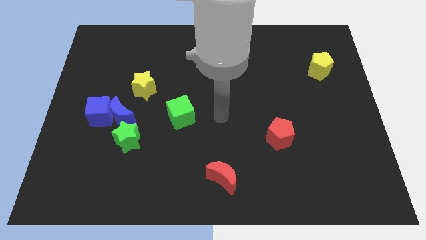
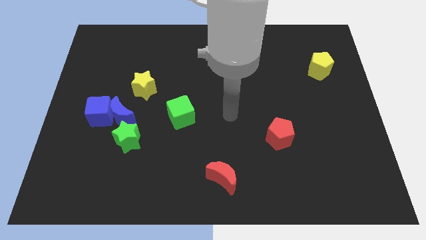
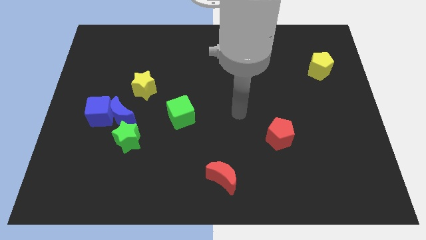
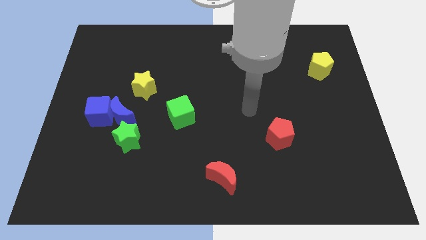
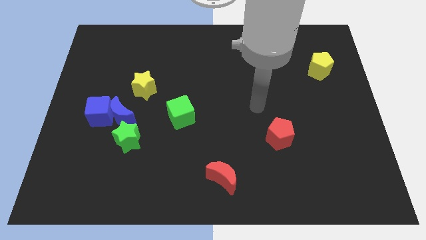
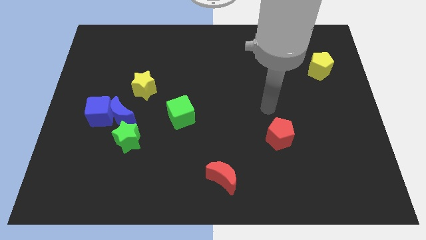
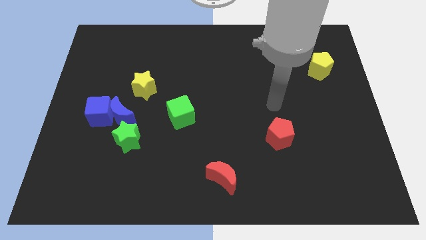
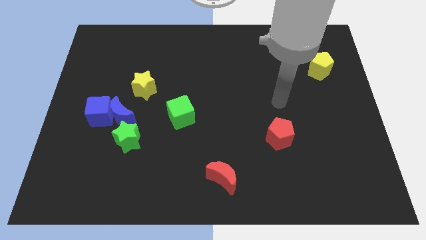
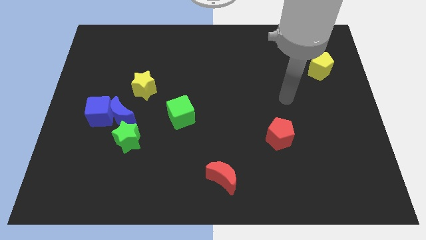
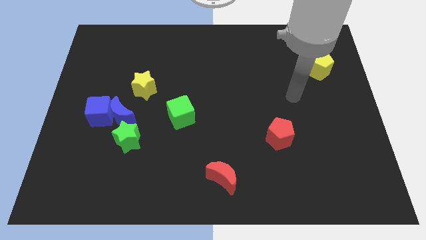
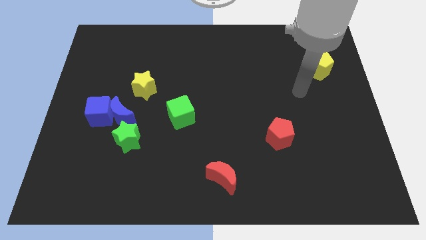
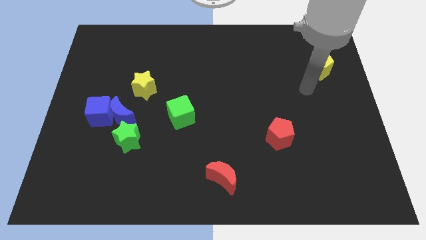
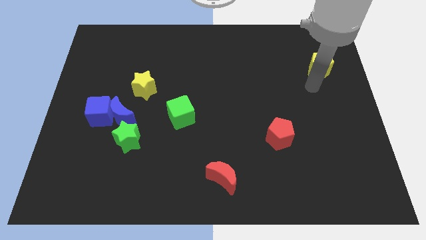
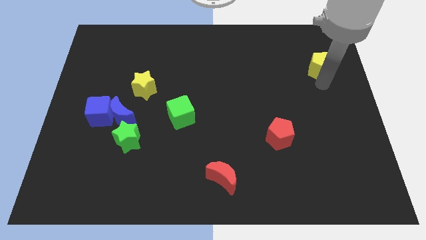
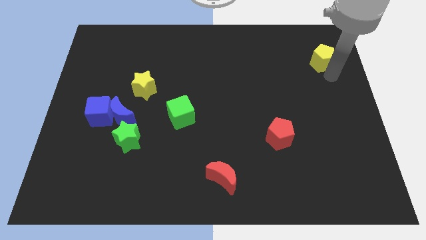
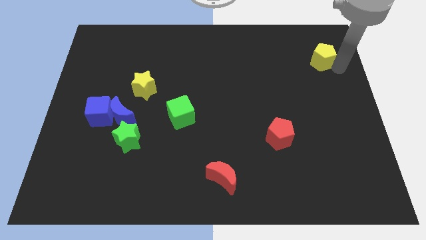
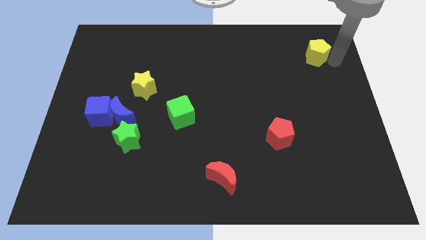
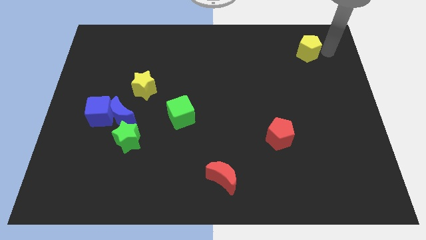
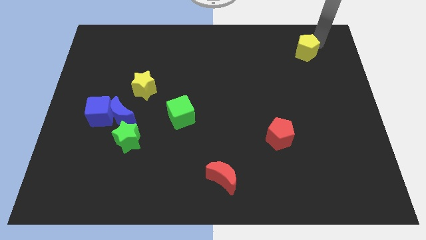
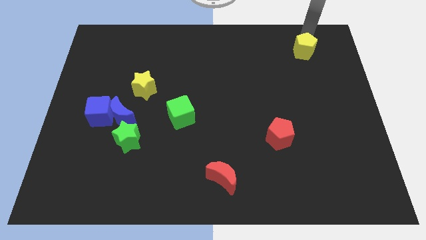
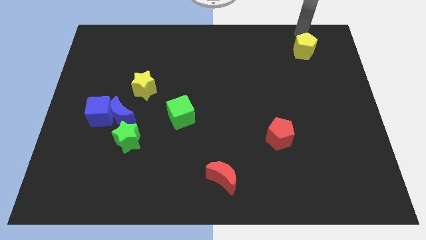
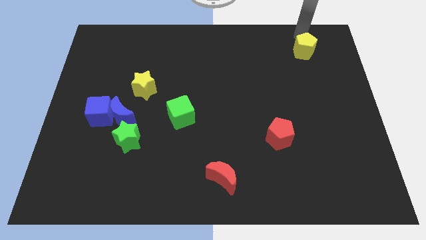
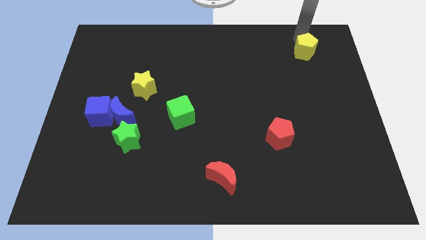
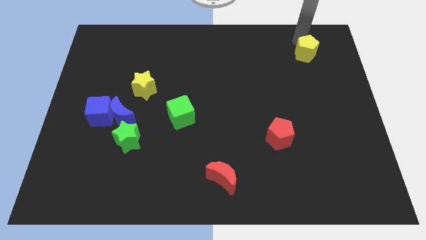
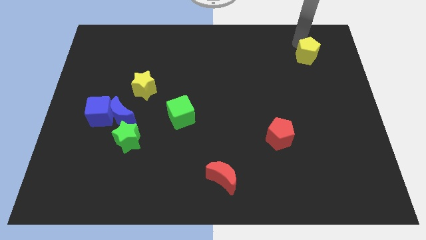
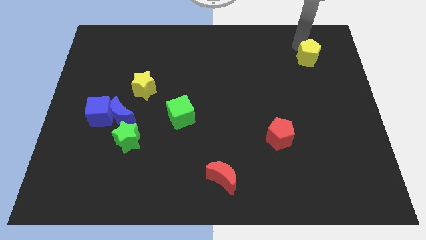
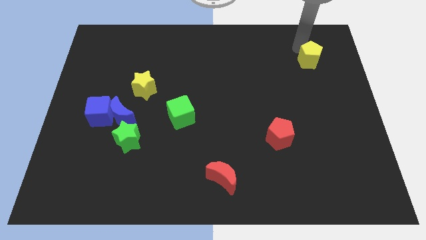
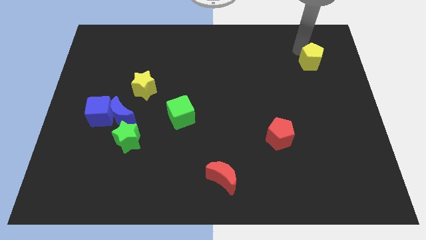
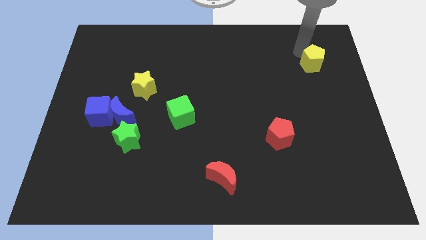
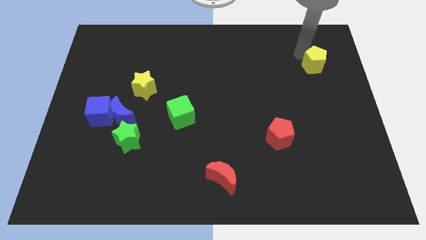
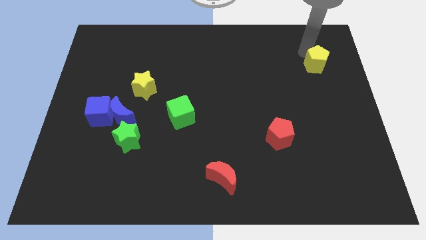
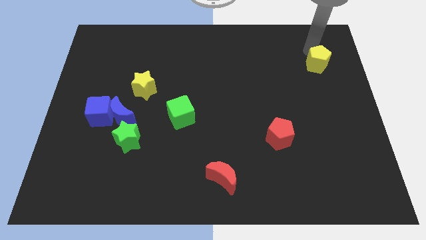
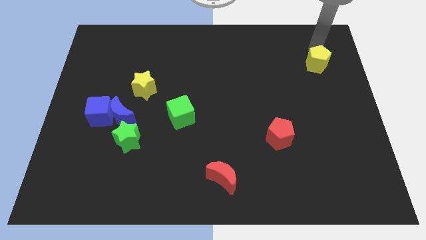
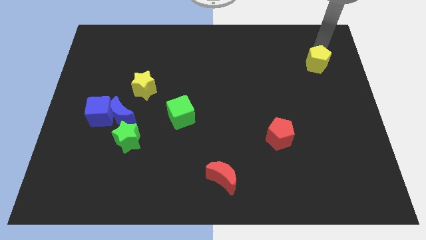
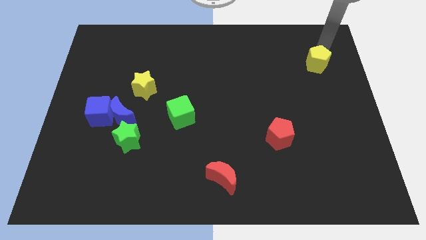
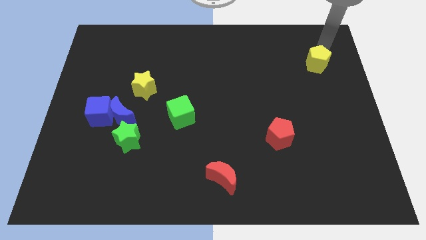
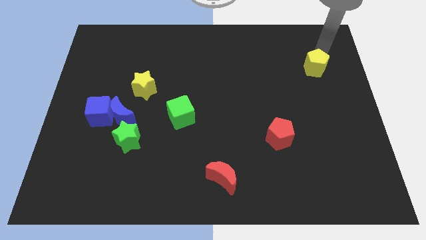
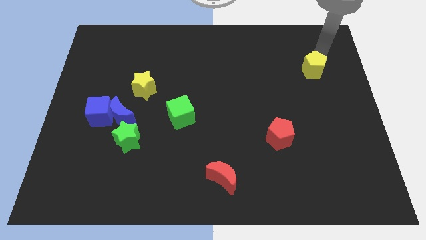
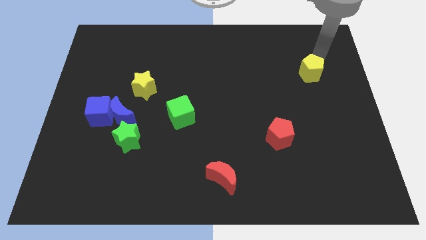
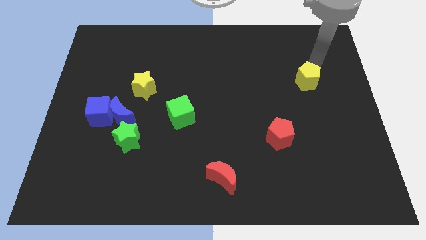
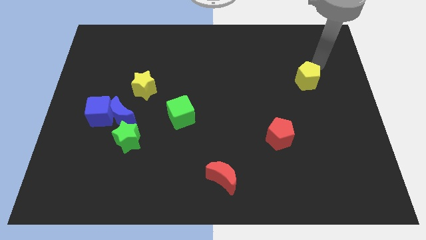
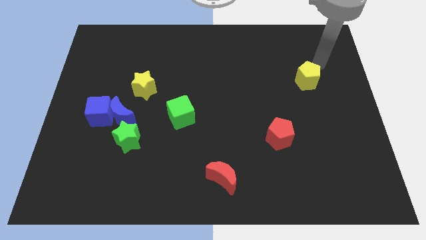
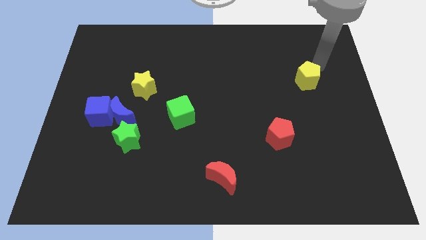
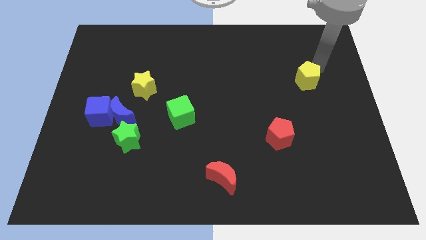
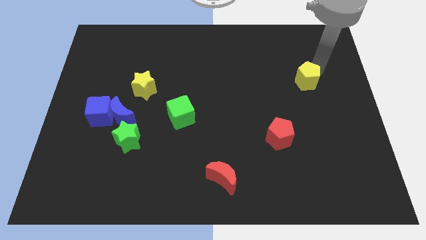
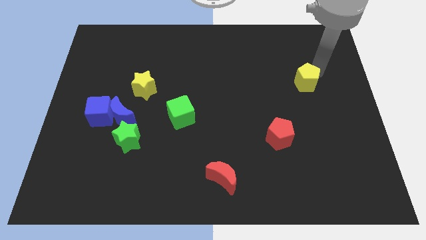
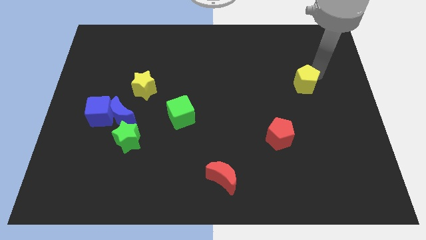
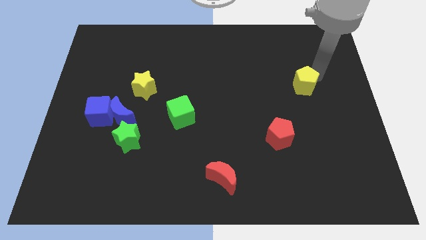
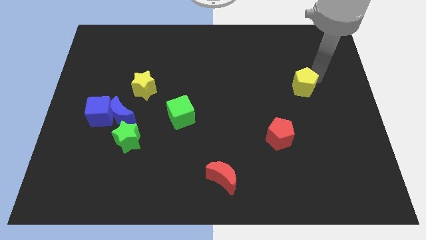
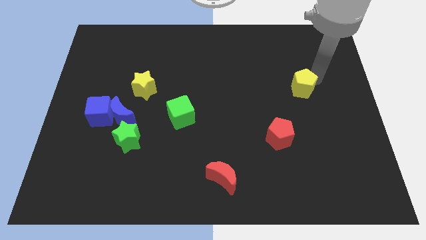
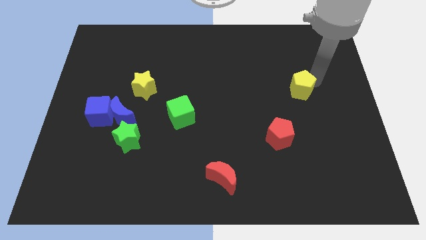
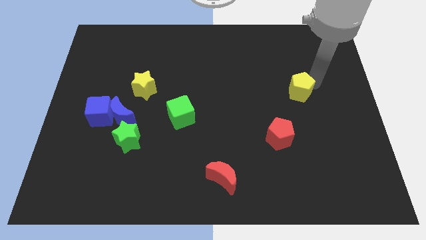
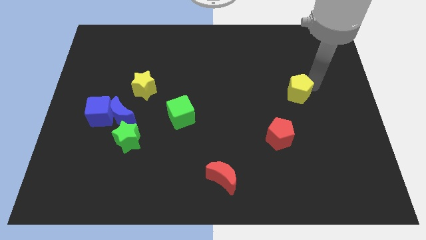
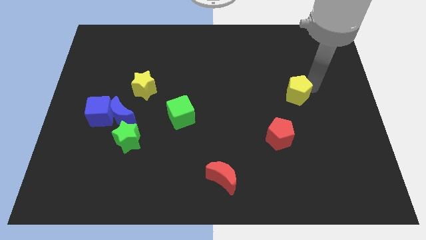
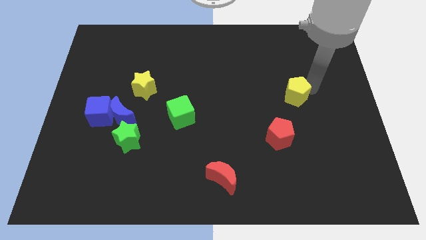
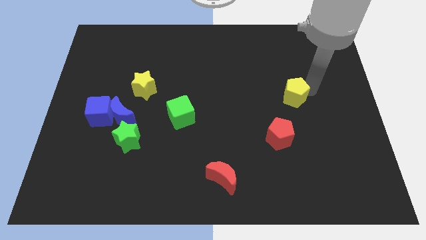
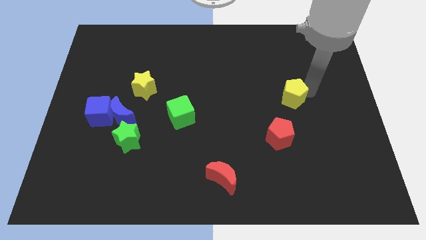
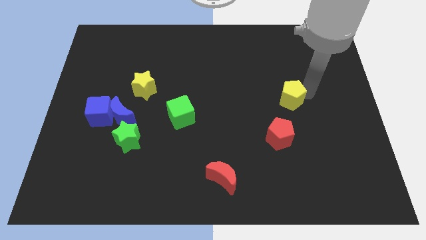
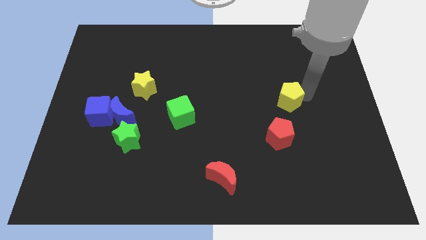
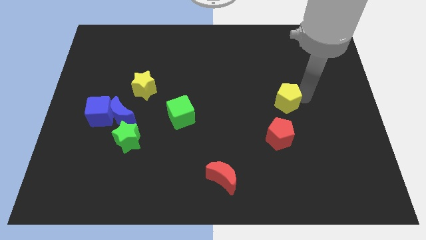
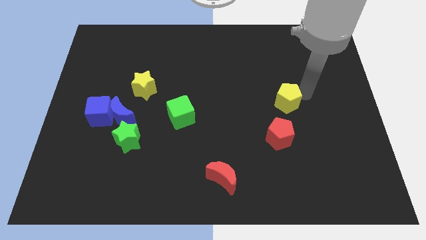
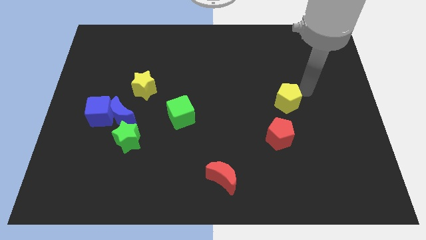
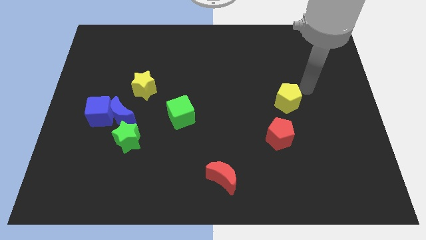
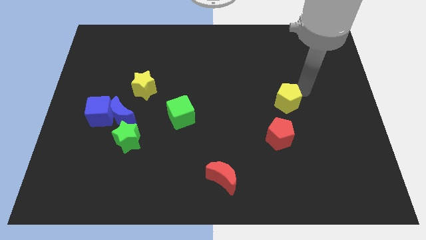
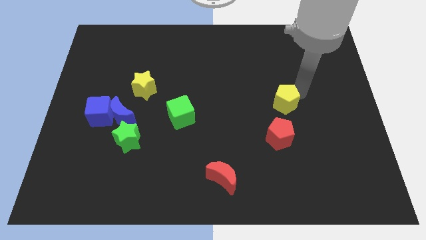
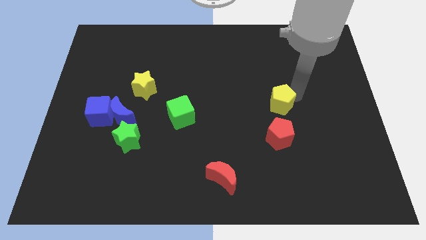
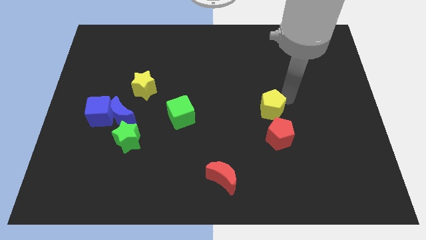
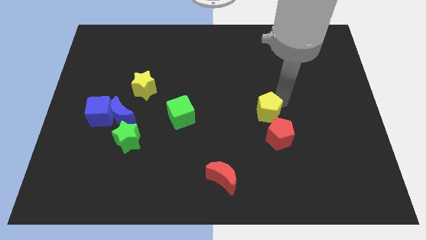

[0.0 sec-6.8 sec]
slide the yellow pentagon diagonally down and left

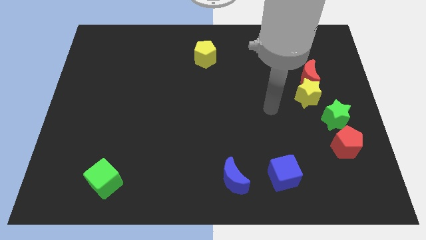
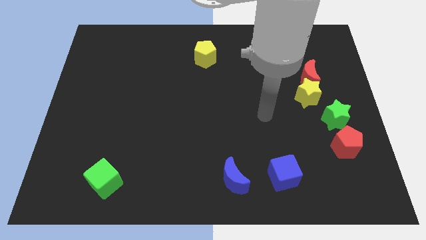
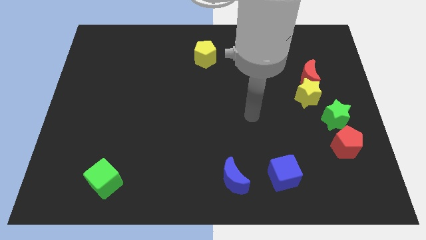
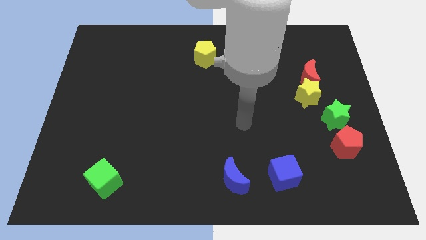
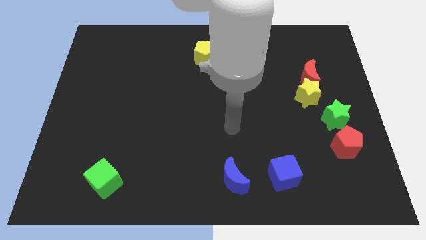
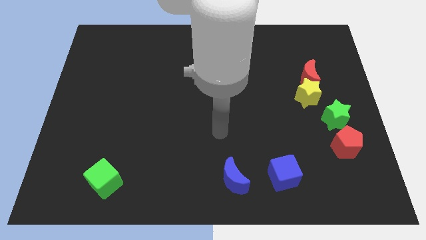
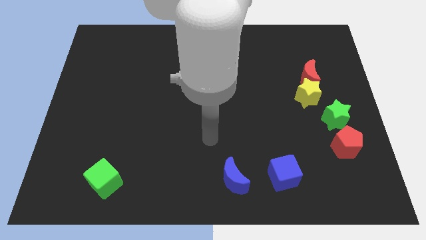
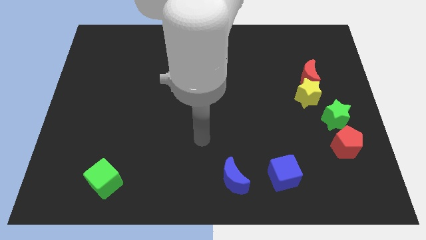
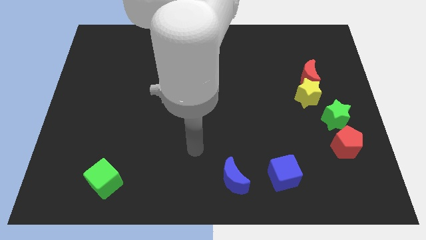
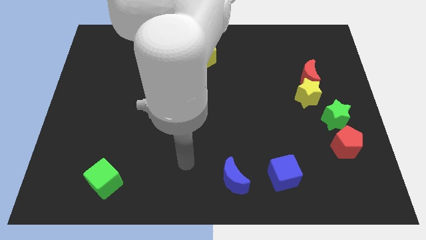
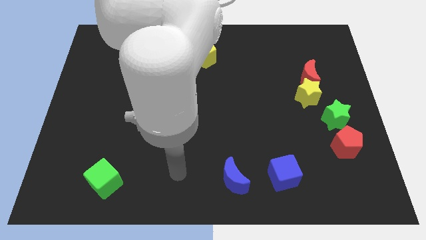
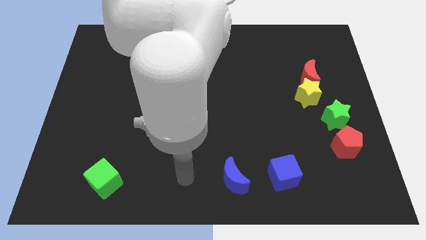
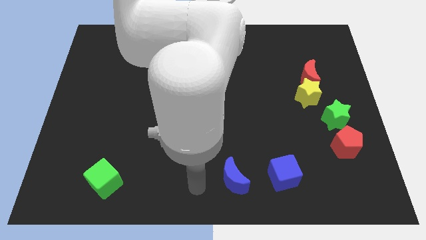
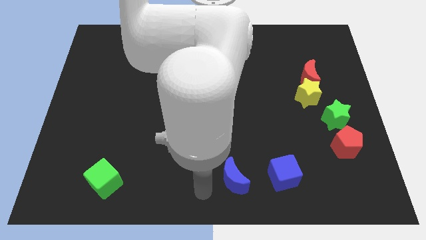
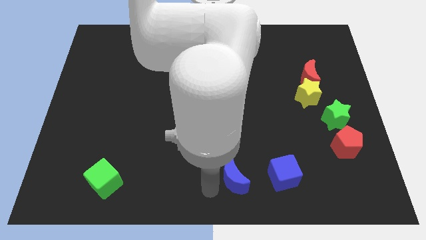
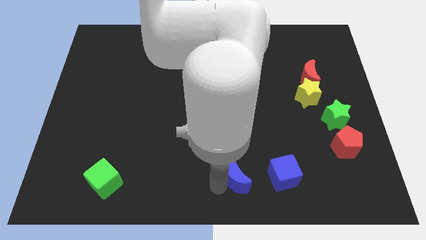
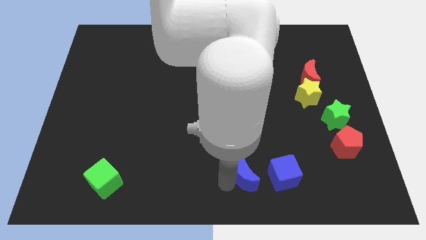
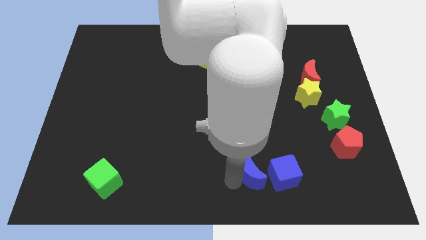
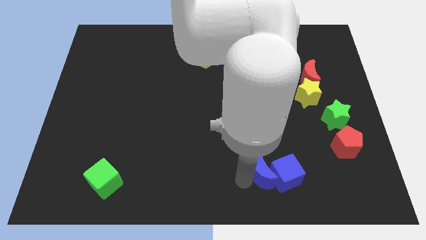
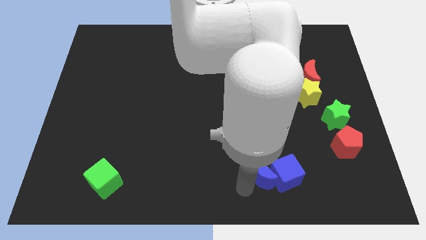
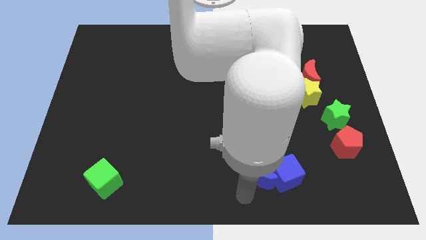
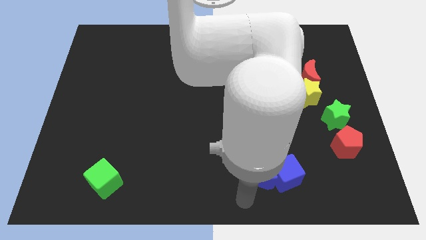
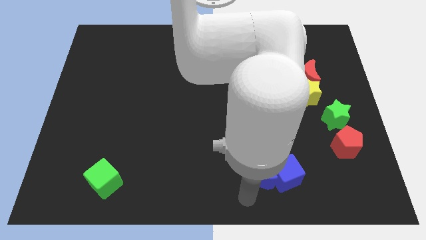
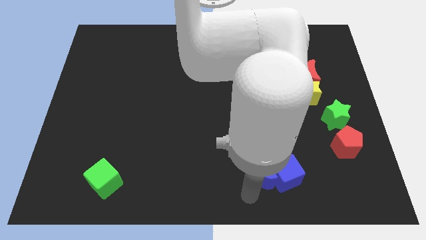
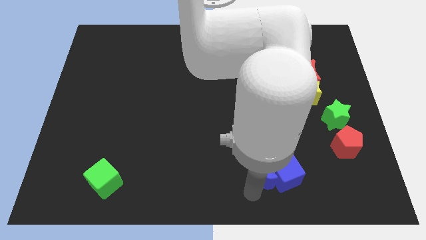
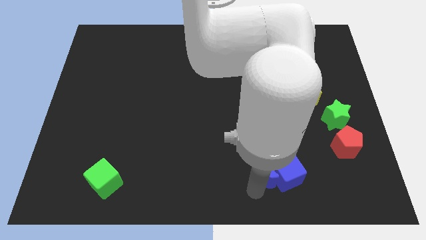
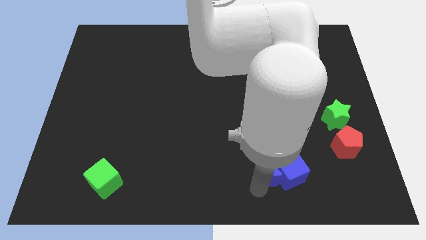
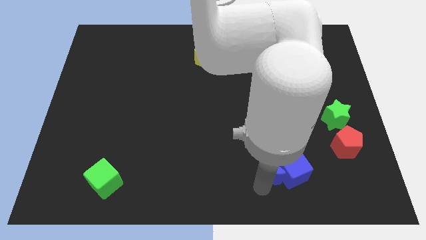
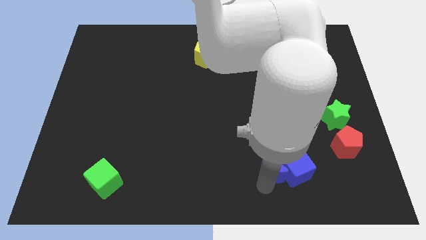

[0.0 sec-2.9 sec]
slide the blue moon a bit up and to the right diagonally
